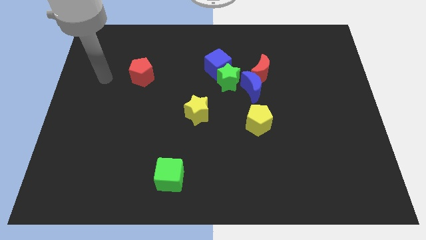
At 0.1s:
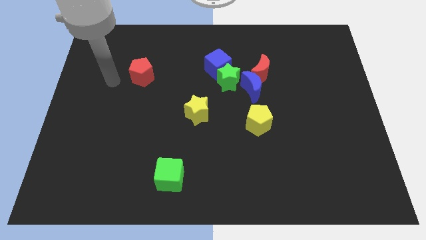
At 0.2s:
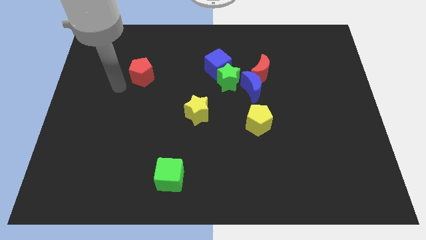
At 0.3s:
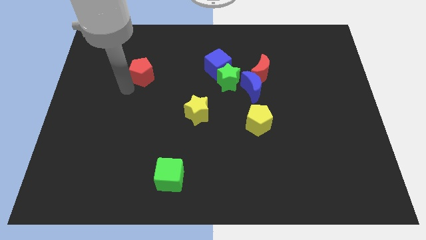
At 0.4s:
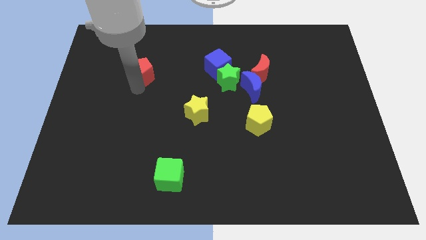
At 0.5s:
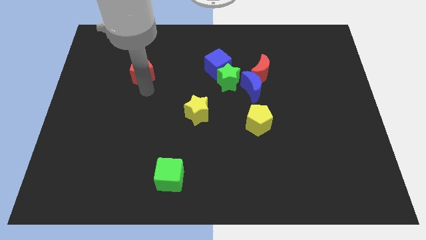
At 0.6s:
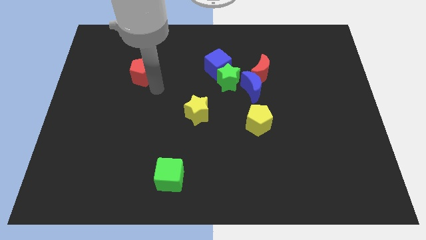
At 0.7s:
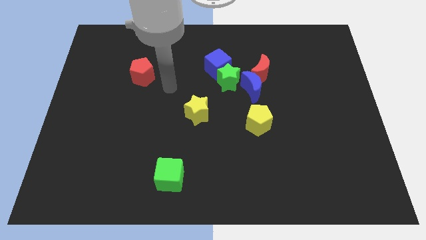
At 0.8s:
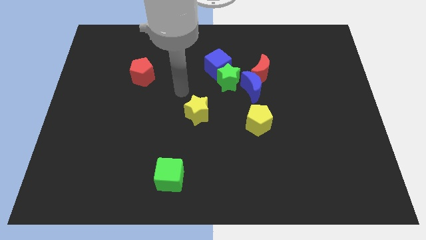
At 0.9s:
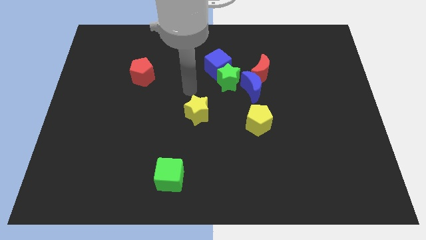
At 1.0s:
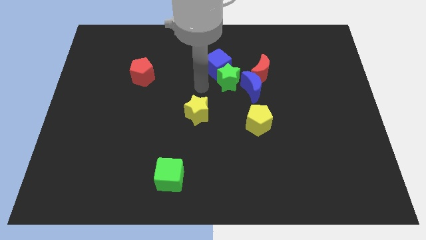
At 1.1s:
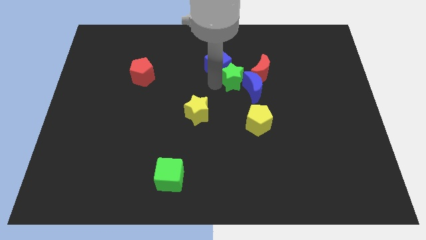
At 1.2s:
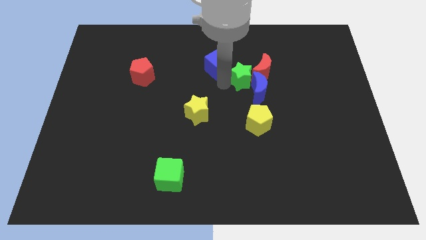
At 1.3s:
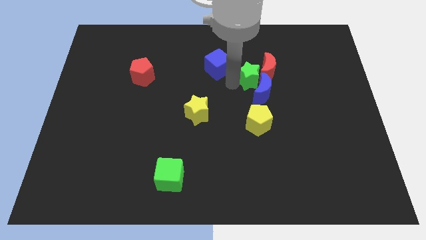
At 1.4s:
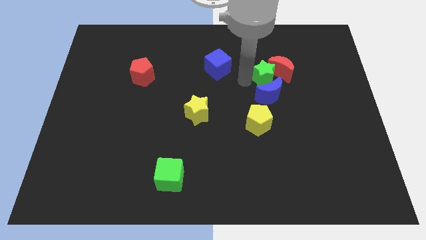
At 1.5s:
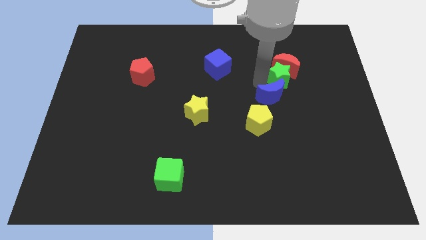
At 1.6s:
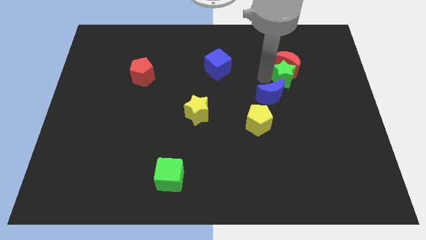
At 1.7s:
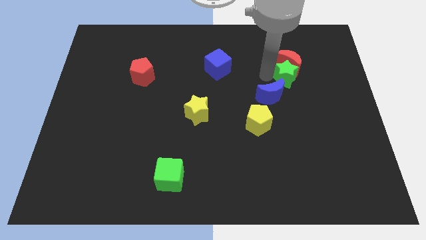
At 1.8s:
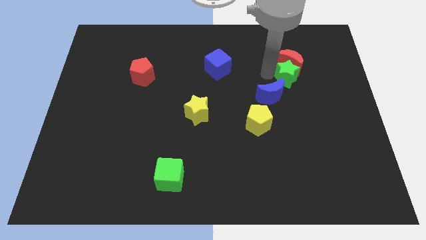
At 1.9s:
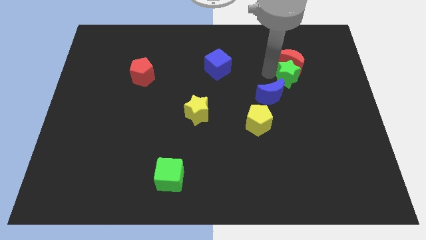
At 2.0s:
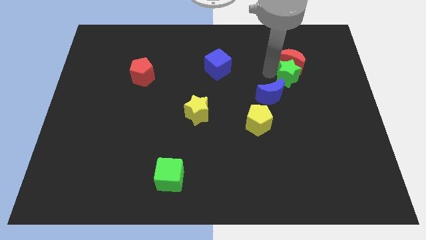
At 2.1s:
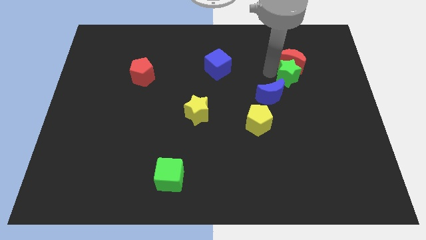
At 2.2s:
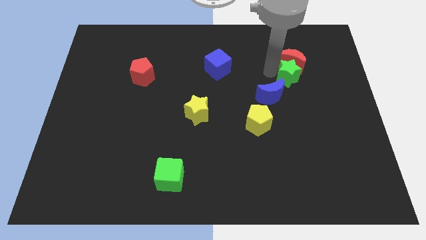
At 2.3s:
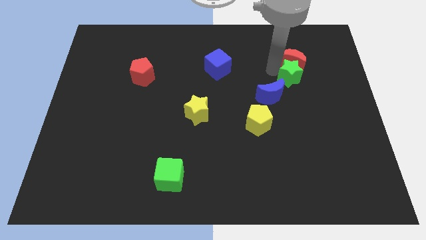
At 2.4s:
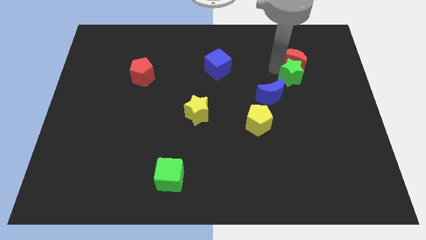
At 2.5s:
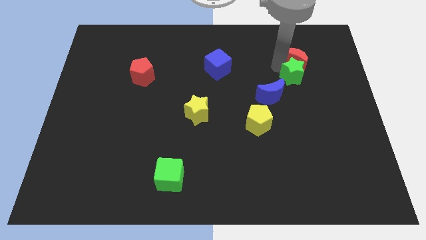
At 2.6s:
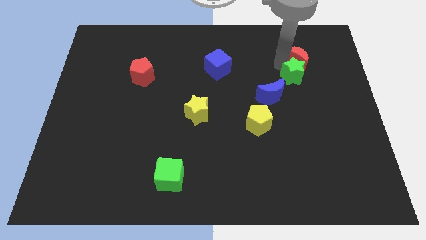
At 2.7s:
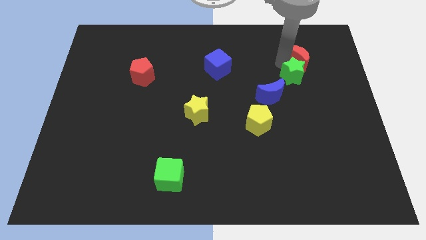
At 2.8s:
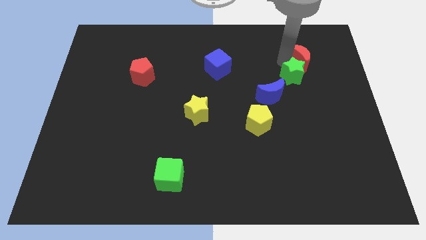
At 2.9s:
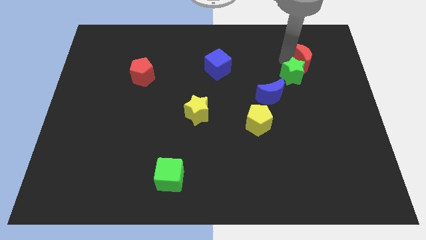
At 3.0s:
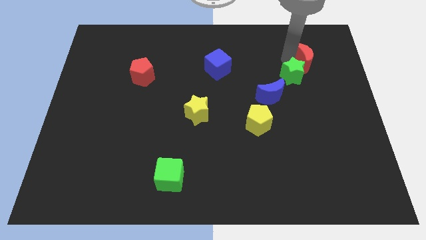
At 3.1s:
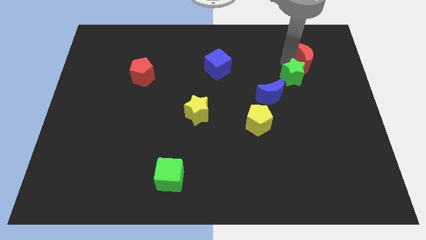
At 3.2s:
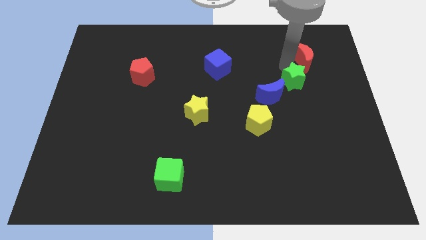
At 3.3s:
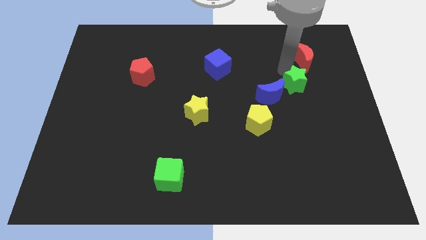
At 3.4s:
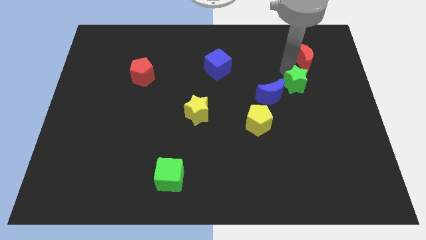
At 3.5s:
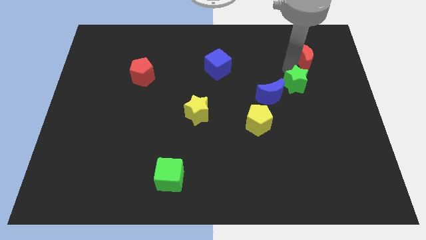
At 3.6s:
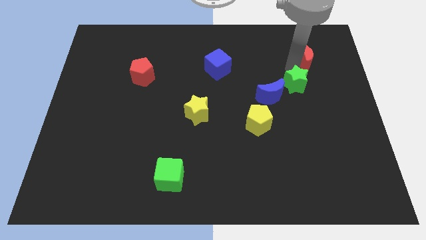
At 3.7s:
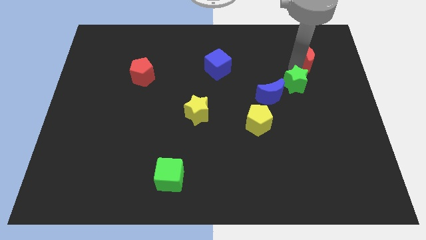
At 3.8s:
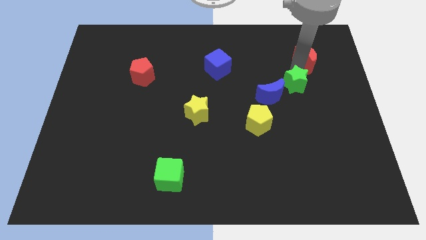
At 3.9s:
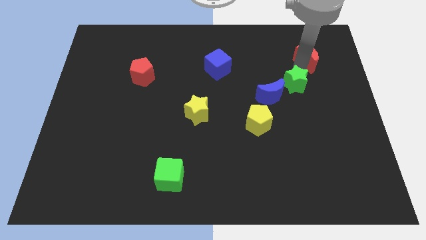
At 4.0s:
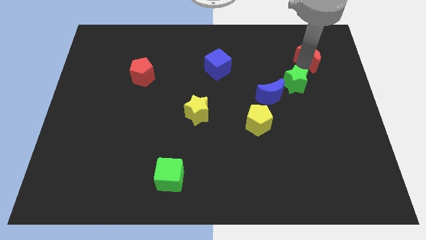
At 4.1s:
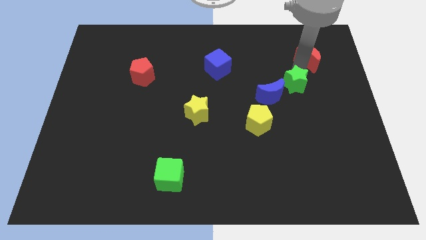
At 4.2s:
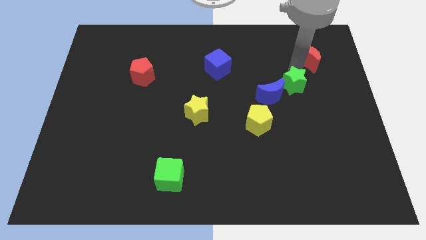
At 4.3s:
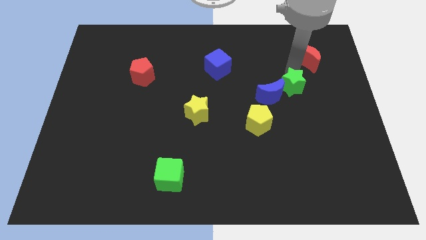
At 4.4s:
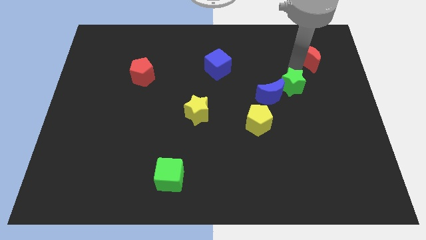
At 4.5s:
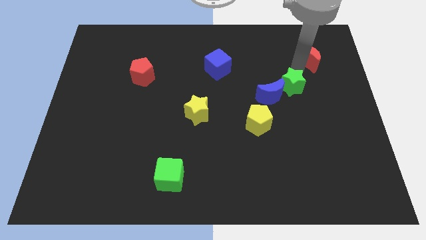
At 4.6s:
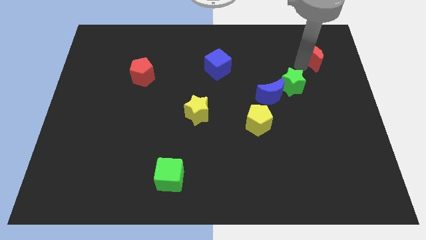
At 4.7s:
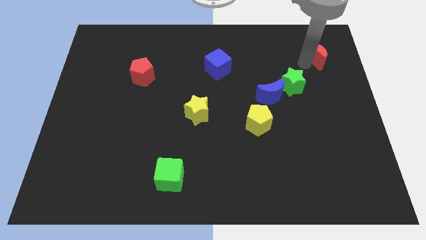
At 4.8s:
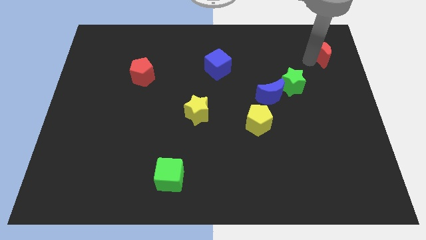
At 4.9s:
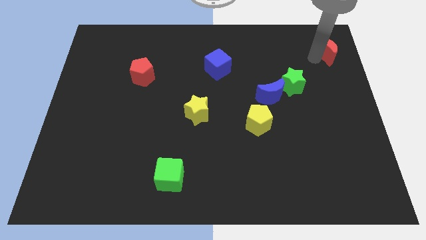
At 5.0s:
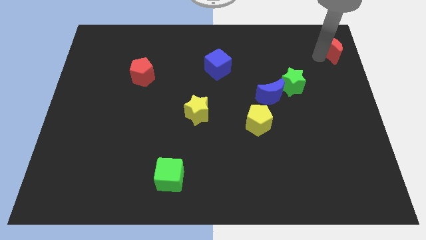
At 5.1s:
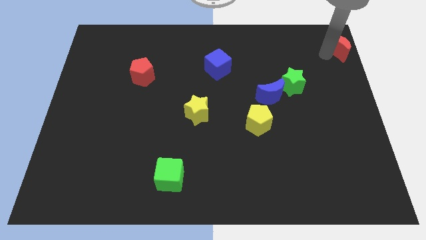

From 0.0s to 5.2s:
push the red moon to the upper right corner

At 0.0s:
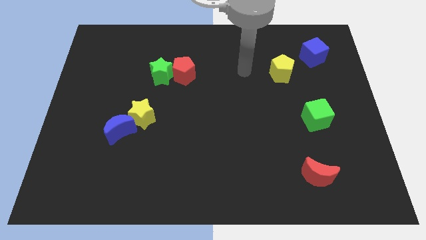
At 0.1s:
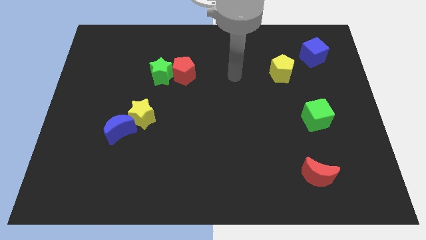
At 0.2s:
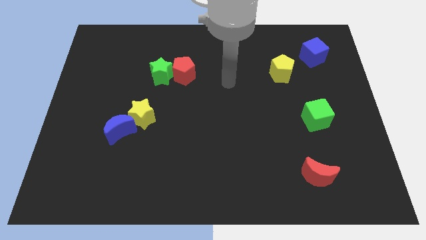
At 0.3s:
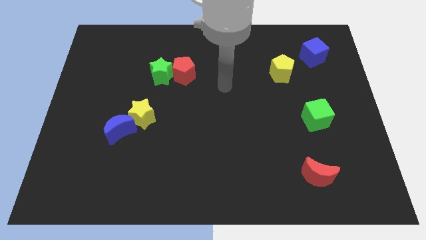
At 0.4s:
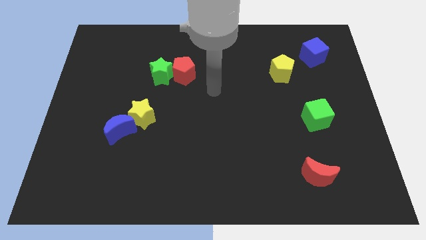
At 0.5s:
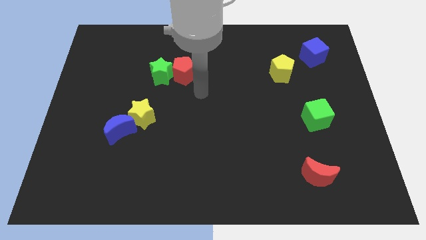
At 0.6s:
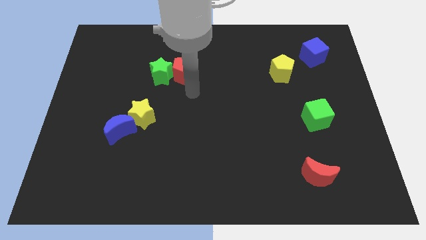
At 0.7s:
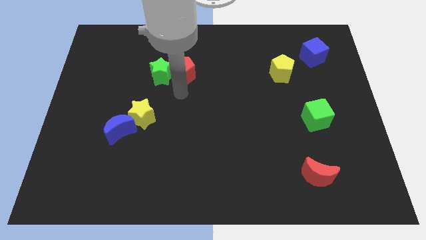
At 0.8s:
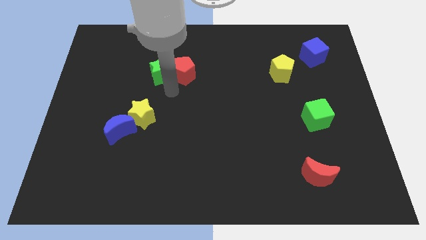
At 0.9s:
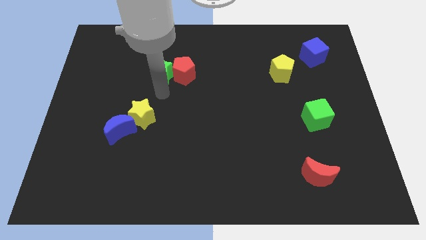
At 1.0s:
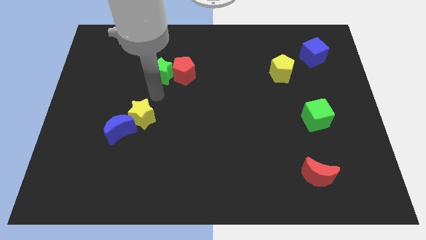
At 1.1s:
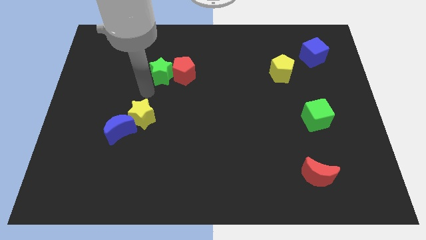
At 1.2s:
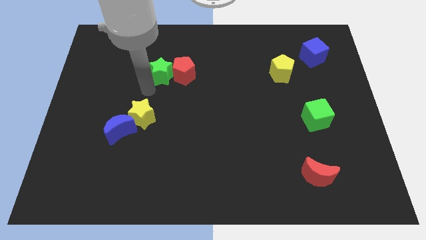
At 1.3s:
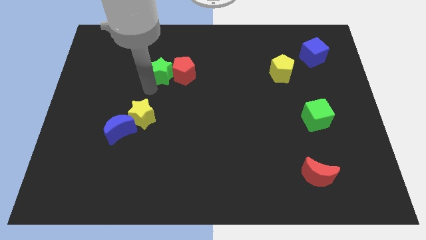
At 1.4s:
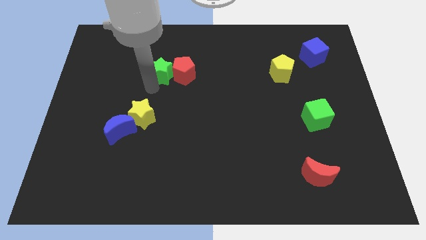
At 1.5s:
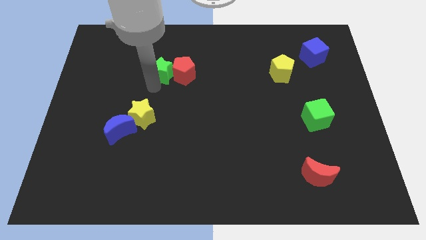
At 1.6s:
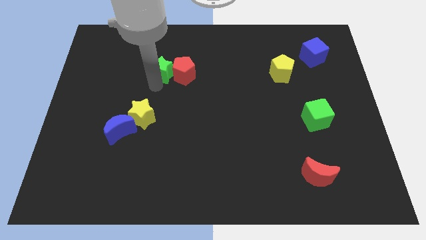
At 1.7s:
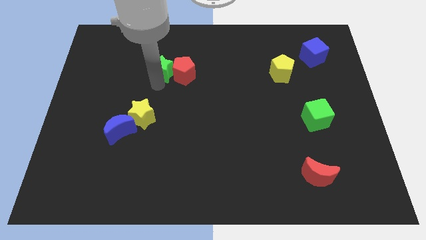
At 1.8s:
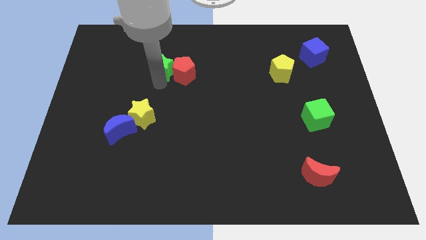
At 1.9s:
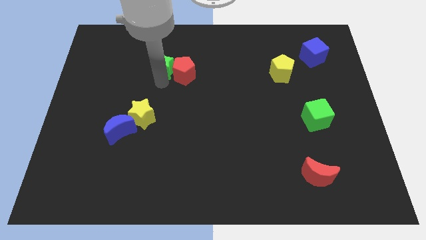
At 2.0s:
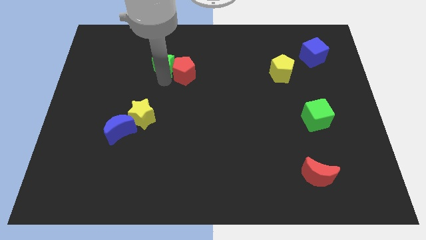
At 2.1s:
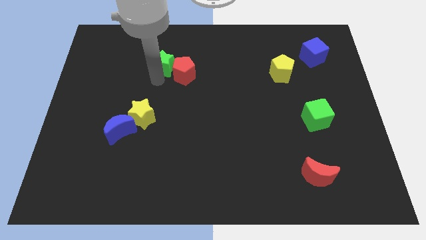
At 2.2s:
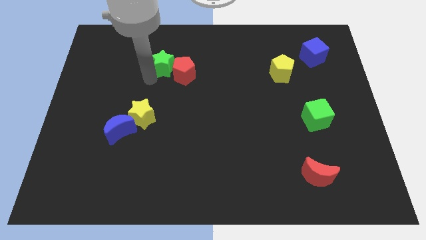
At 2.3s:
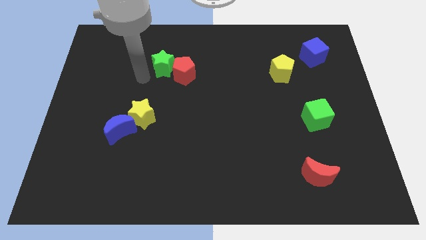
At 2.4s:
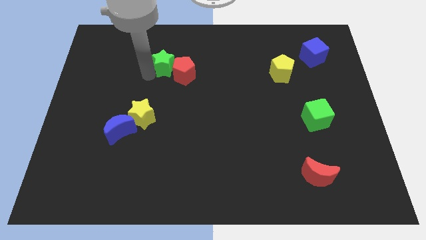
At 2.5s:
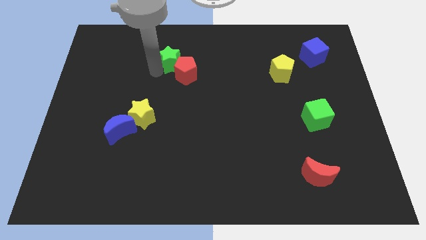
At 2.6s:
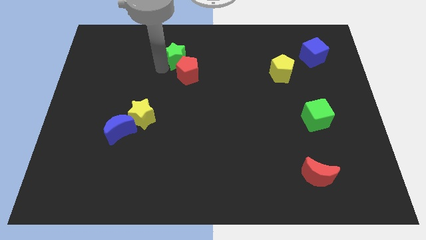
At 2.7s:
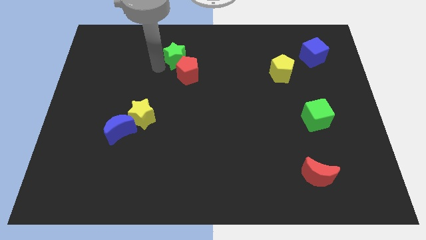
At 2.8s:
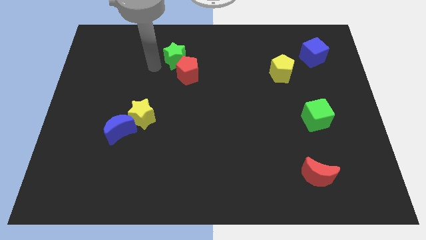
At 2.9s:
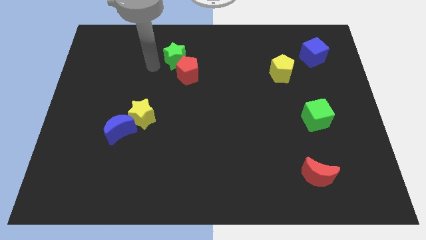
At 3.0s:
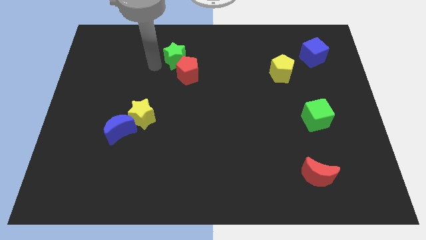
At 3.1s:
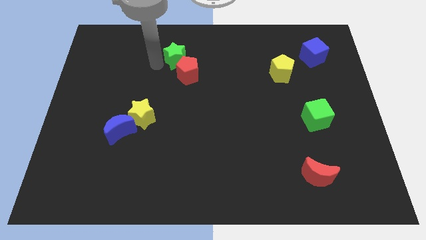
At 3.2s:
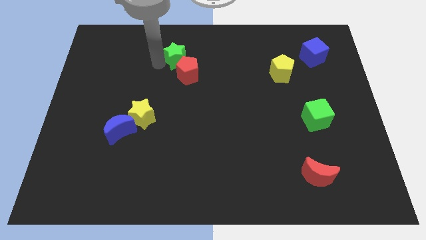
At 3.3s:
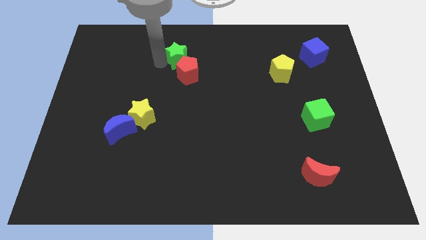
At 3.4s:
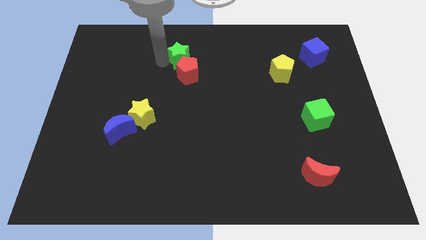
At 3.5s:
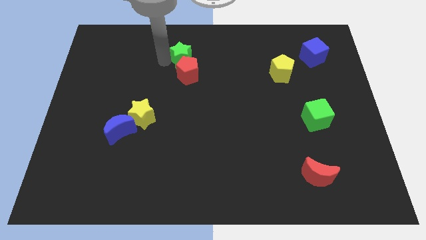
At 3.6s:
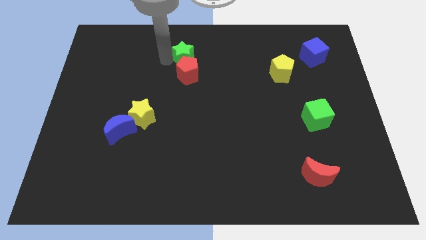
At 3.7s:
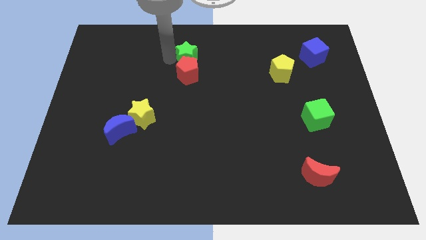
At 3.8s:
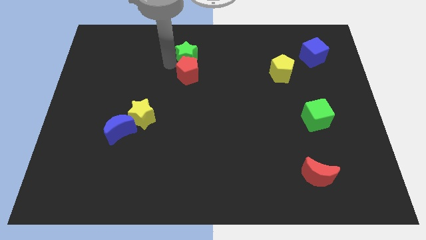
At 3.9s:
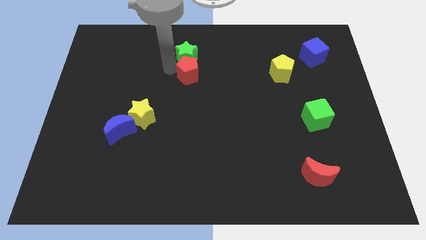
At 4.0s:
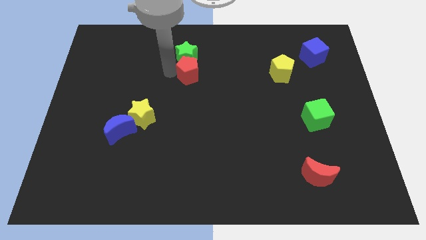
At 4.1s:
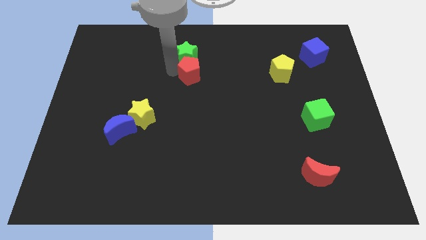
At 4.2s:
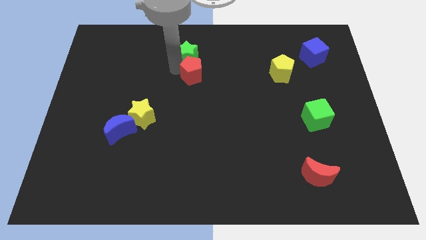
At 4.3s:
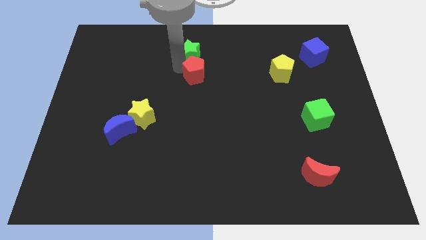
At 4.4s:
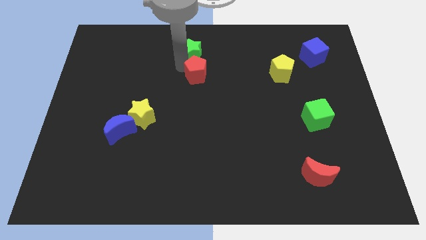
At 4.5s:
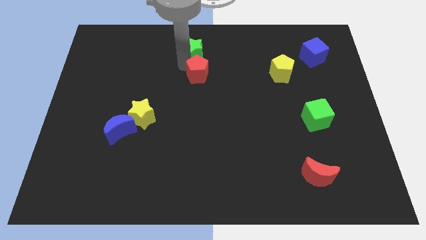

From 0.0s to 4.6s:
move the green star to the top side
